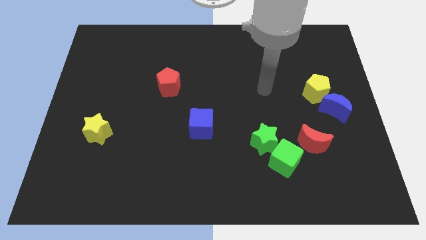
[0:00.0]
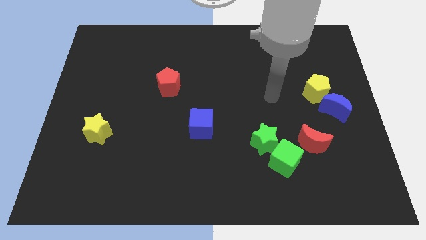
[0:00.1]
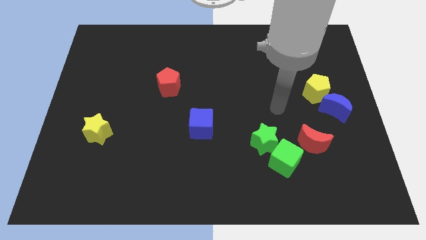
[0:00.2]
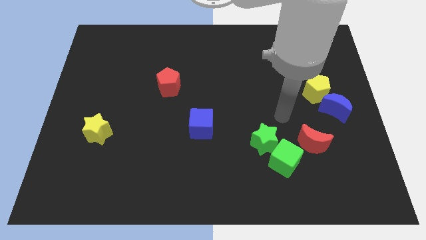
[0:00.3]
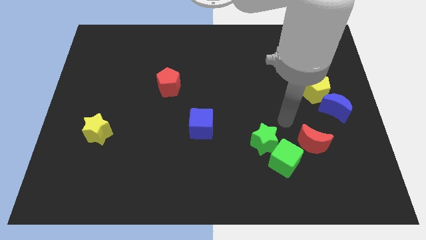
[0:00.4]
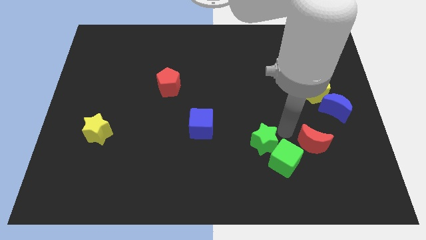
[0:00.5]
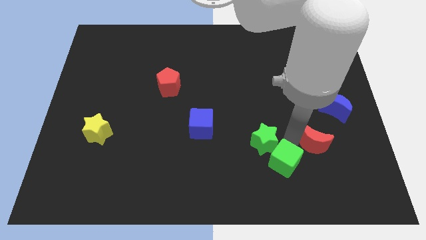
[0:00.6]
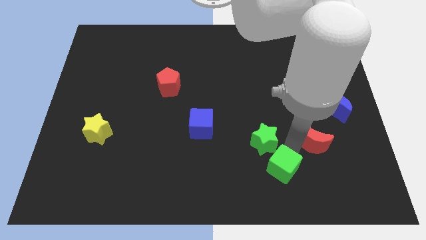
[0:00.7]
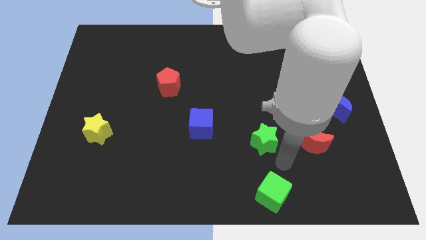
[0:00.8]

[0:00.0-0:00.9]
move the green star away from the green cube

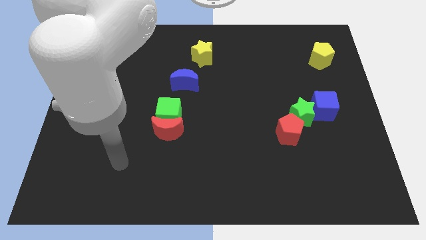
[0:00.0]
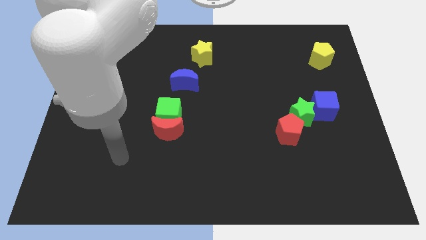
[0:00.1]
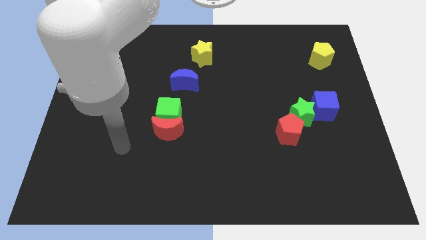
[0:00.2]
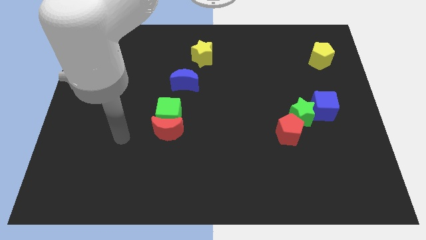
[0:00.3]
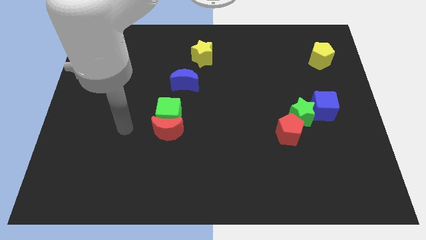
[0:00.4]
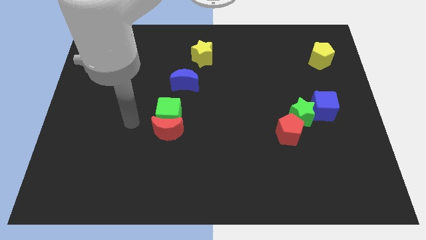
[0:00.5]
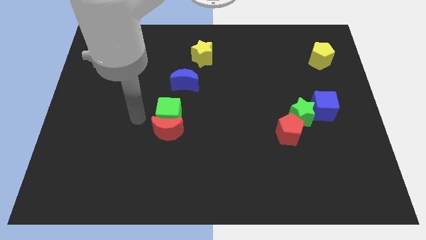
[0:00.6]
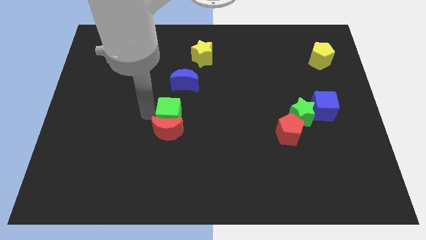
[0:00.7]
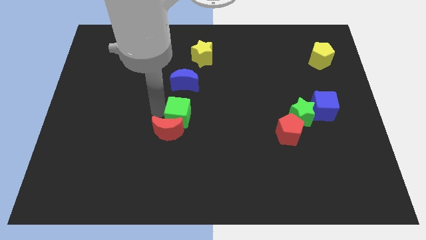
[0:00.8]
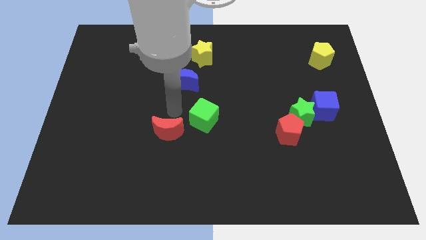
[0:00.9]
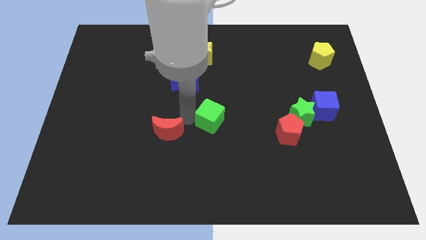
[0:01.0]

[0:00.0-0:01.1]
separate the red moon from the green cube

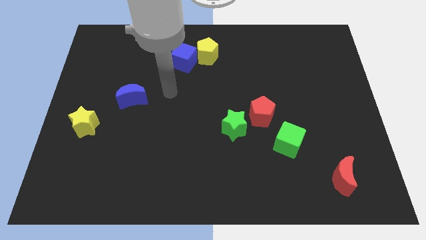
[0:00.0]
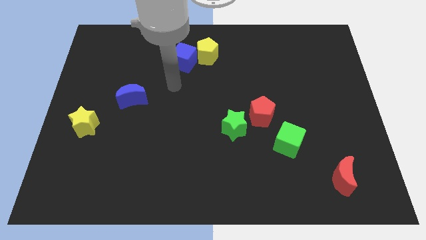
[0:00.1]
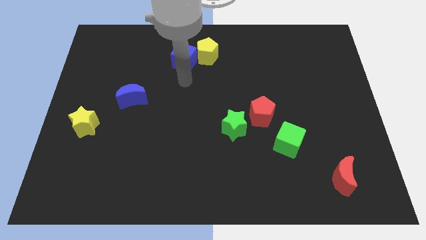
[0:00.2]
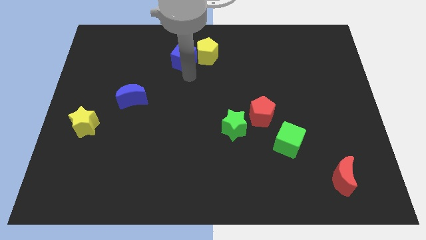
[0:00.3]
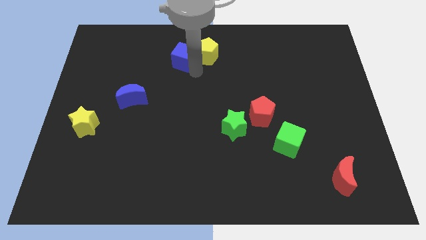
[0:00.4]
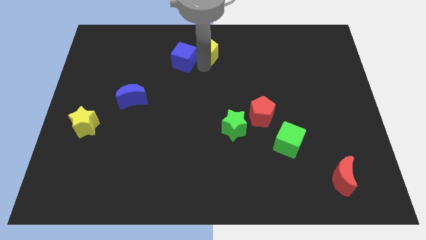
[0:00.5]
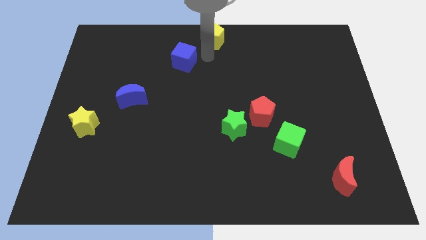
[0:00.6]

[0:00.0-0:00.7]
move the blue cube away from the yellow pentagon

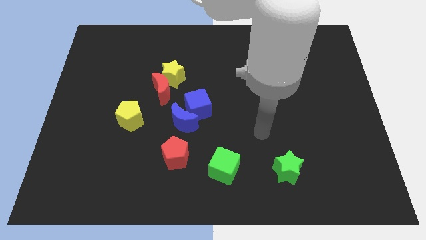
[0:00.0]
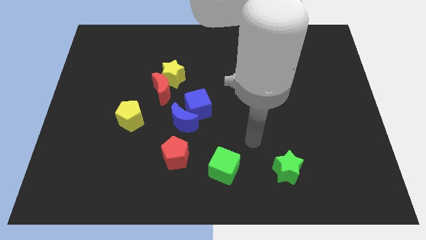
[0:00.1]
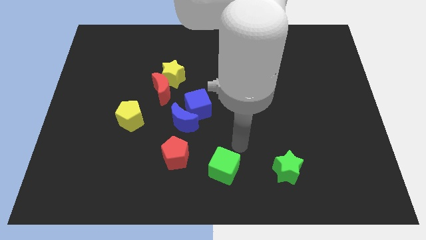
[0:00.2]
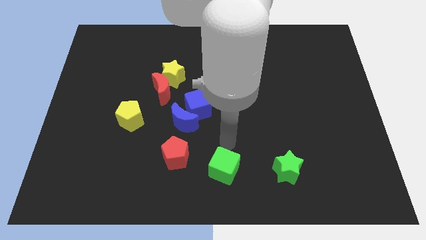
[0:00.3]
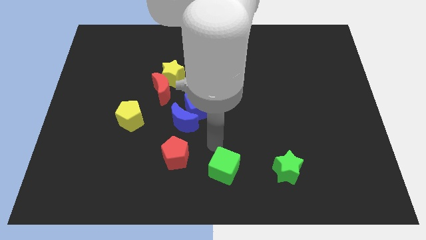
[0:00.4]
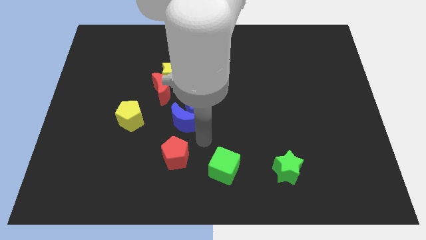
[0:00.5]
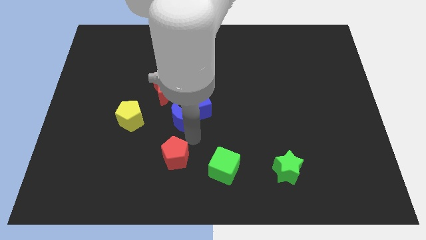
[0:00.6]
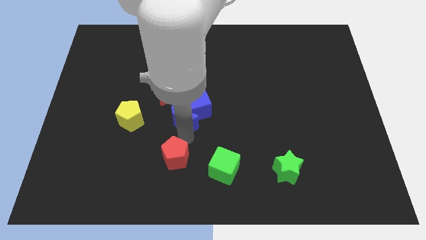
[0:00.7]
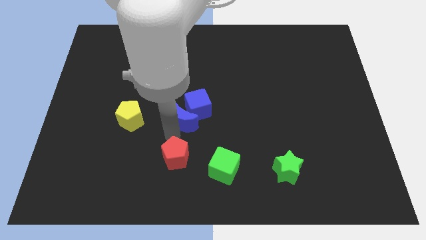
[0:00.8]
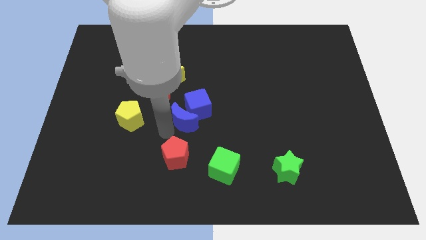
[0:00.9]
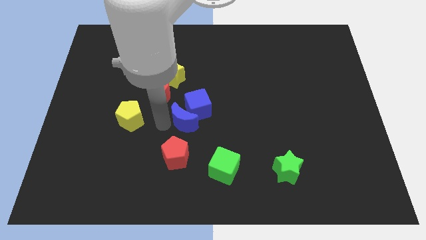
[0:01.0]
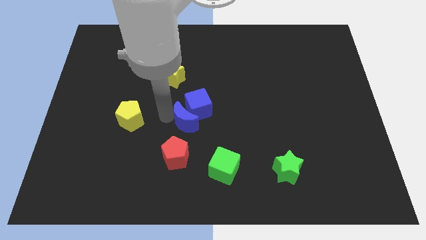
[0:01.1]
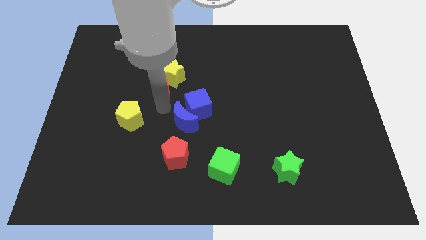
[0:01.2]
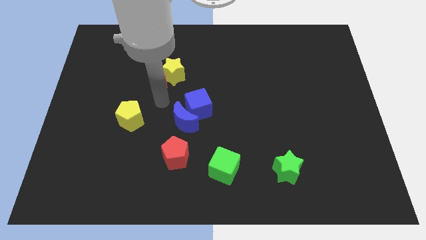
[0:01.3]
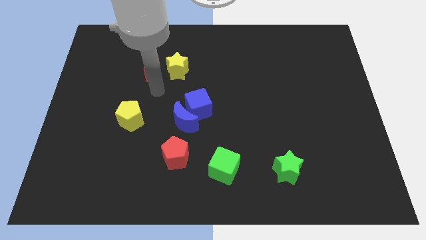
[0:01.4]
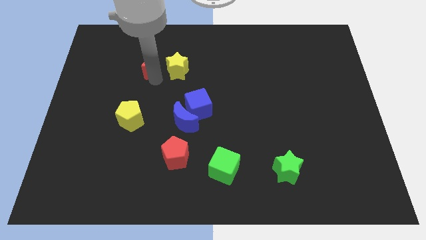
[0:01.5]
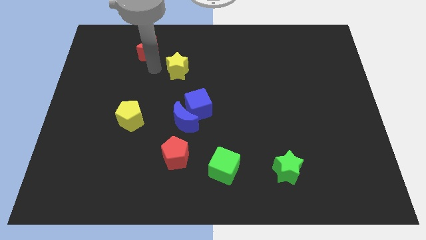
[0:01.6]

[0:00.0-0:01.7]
move the yellow star away from the red moon

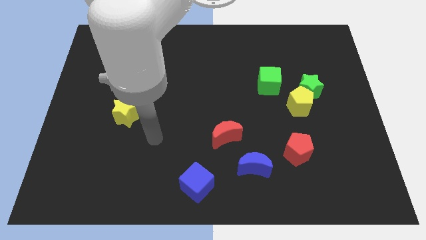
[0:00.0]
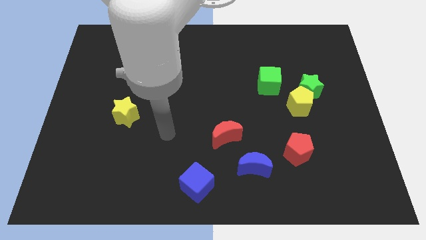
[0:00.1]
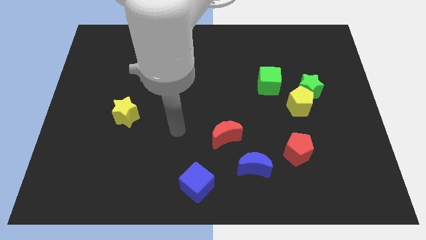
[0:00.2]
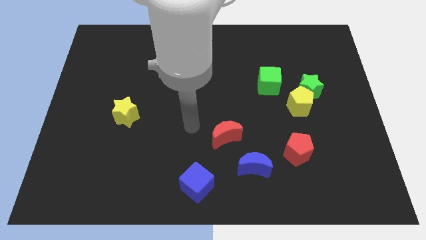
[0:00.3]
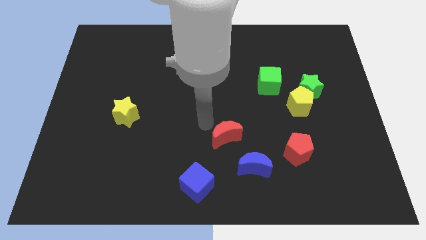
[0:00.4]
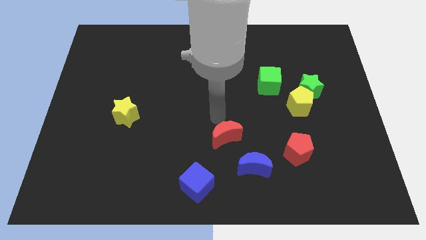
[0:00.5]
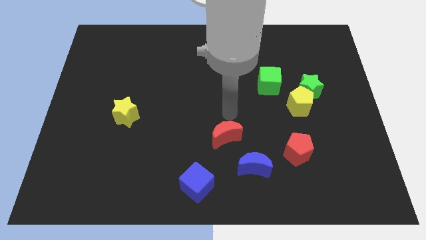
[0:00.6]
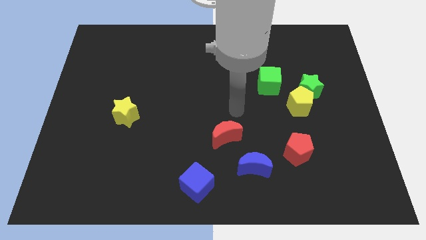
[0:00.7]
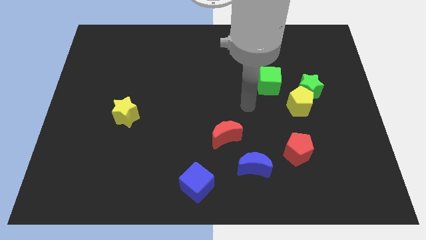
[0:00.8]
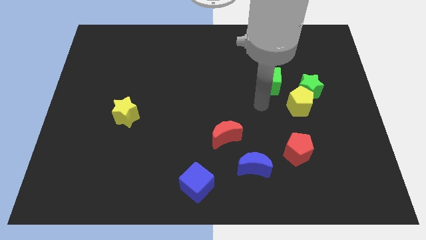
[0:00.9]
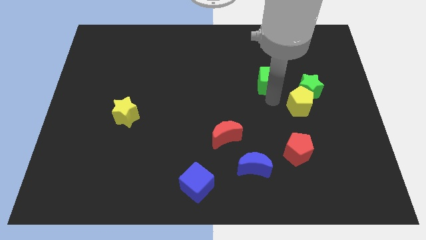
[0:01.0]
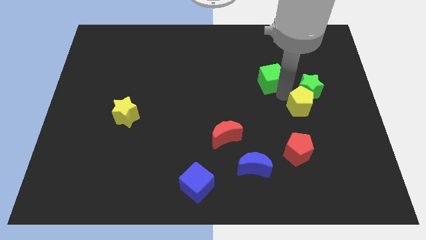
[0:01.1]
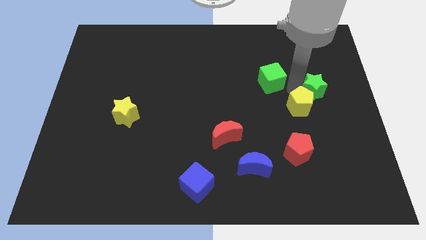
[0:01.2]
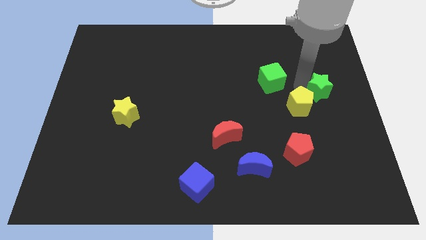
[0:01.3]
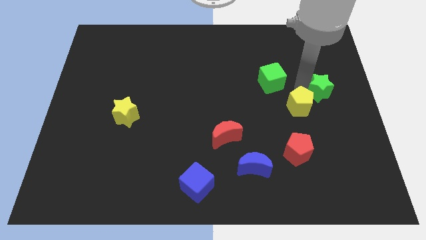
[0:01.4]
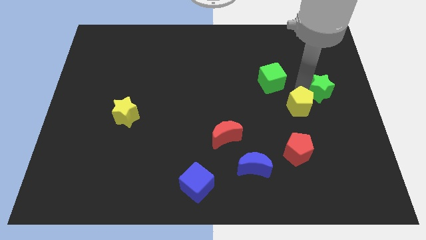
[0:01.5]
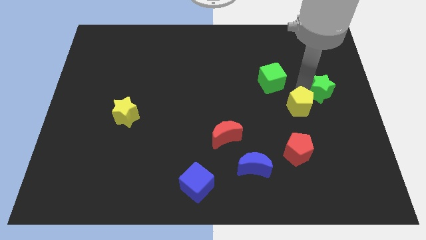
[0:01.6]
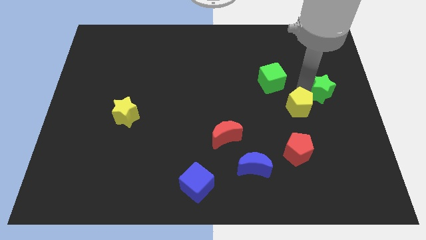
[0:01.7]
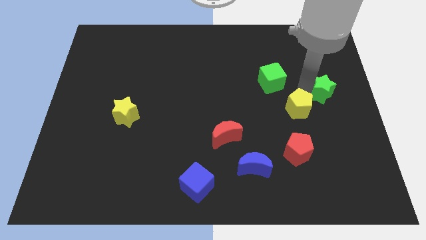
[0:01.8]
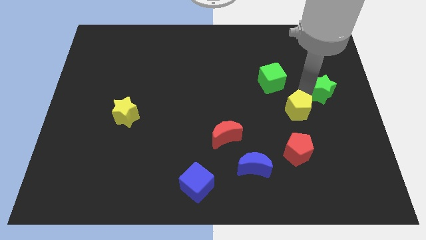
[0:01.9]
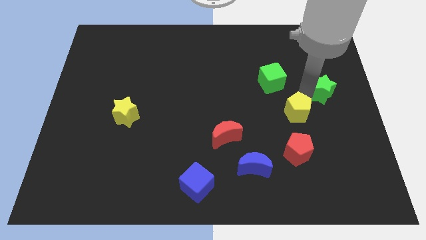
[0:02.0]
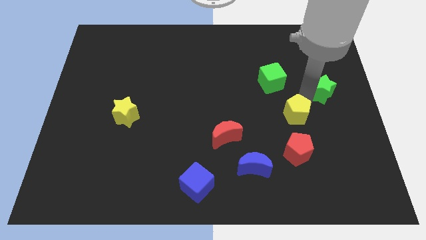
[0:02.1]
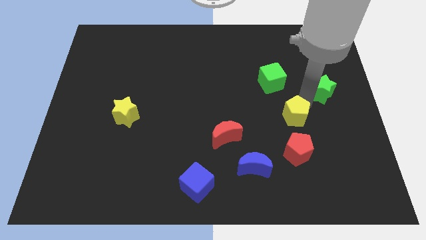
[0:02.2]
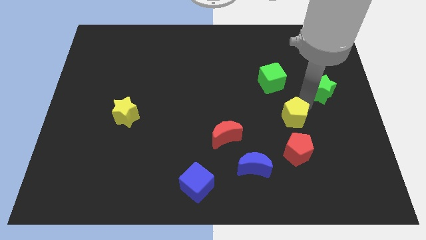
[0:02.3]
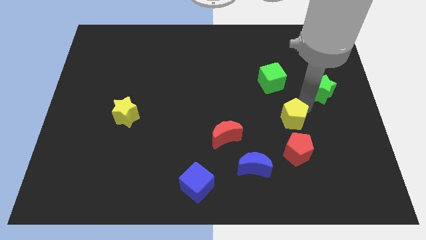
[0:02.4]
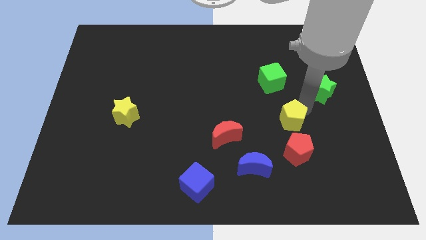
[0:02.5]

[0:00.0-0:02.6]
pull the yellow pentagon apart from the green star and green cube

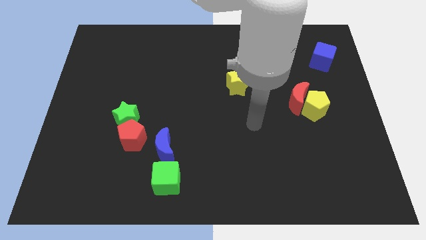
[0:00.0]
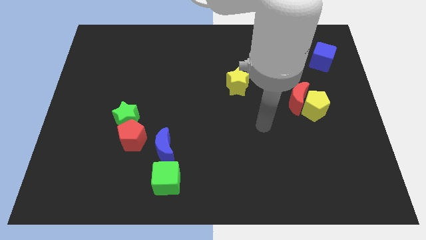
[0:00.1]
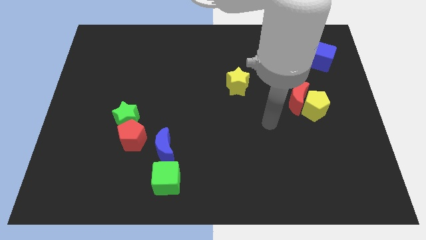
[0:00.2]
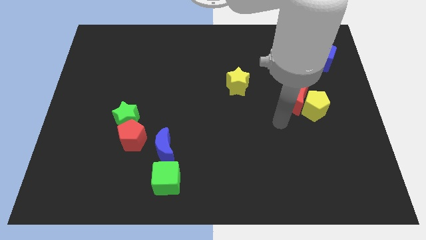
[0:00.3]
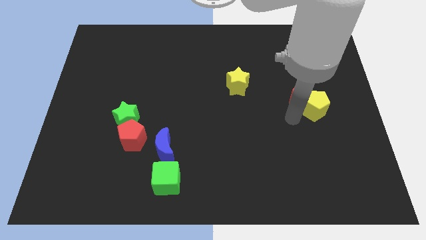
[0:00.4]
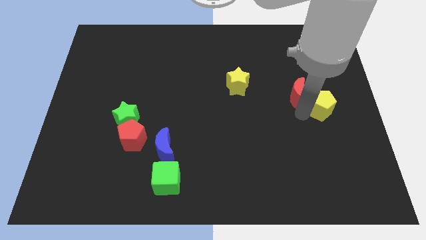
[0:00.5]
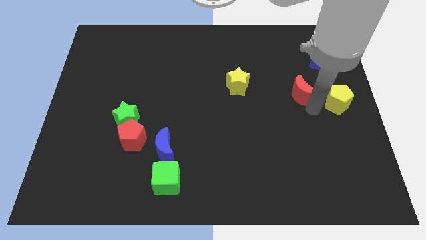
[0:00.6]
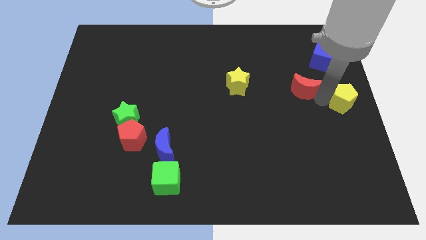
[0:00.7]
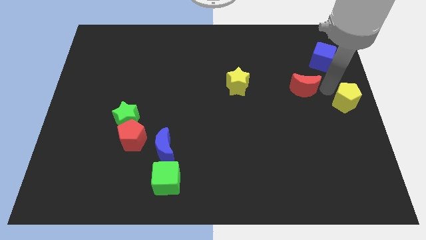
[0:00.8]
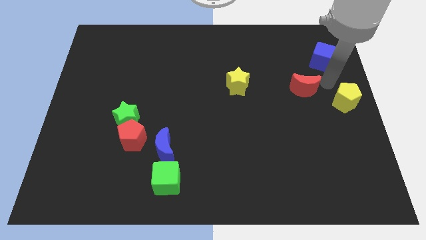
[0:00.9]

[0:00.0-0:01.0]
pull the red moon apart from the yellow pentagon

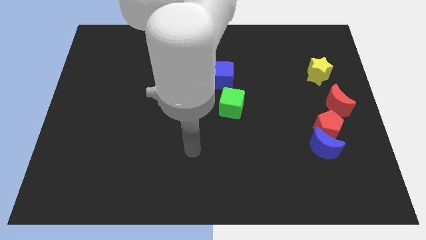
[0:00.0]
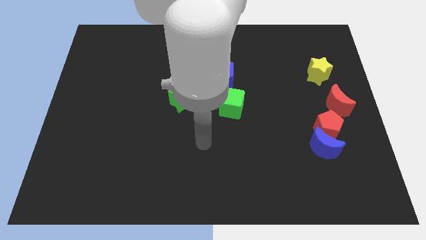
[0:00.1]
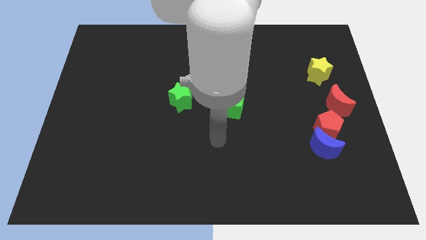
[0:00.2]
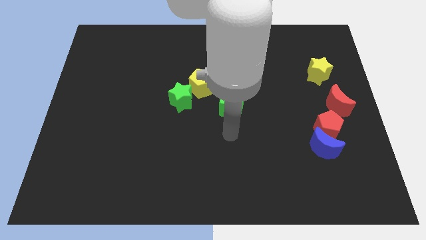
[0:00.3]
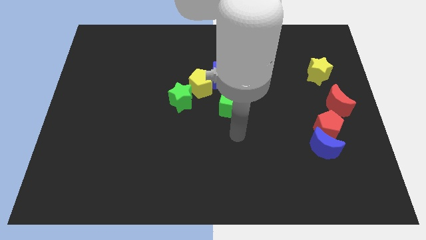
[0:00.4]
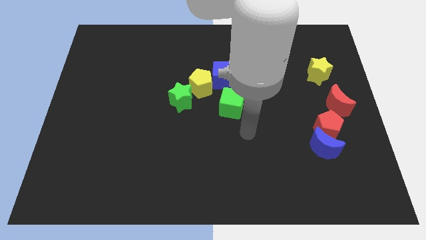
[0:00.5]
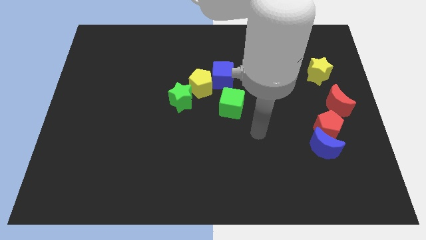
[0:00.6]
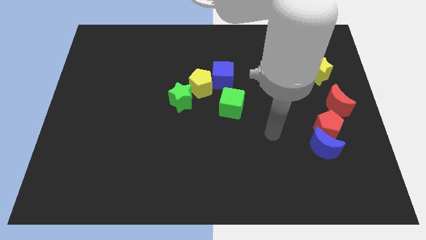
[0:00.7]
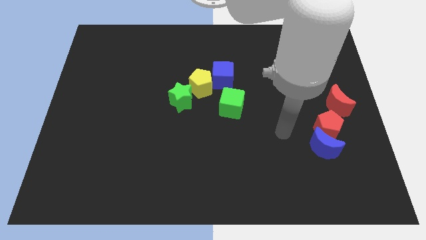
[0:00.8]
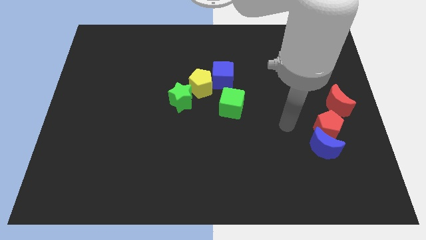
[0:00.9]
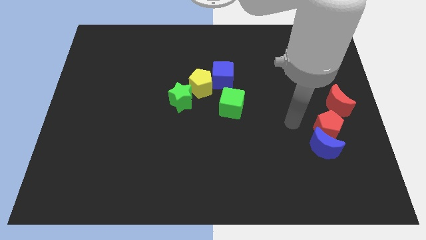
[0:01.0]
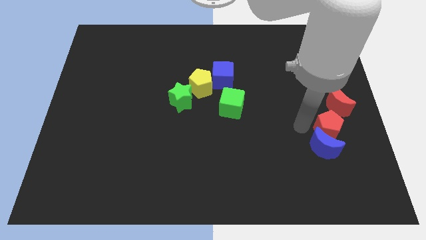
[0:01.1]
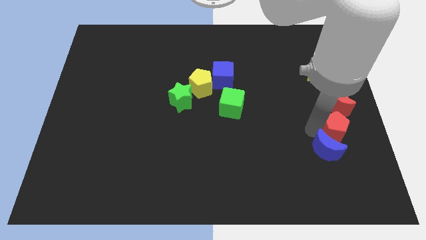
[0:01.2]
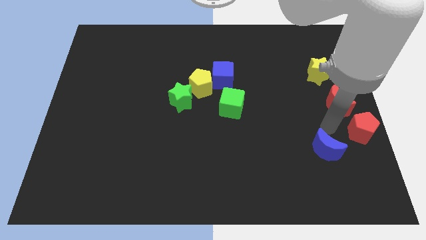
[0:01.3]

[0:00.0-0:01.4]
separate the blue moon from the red pentagon
